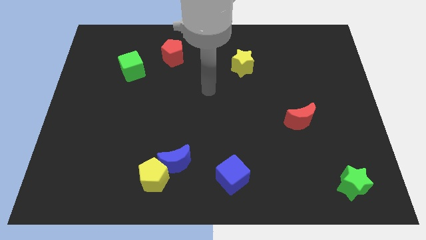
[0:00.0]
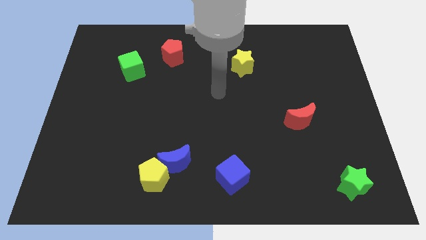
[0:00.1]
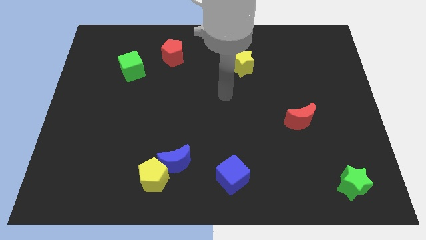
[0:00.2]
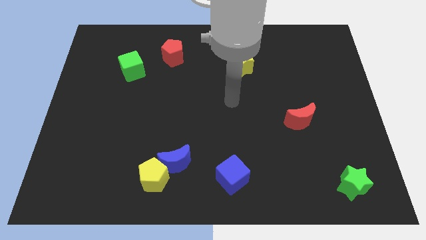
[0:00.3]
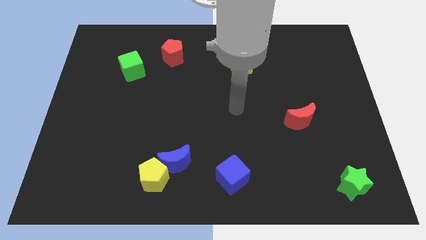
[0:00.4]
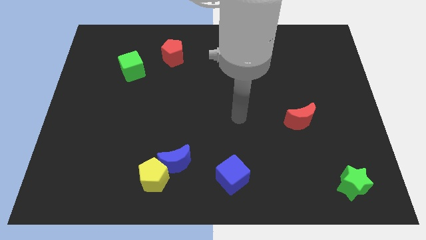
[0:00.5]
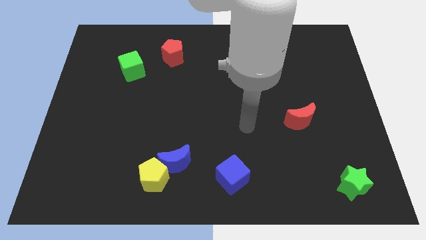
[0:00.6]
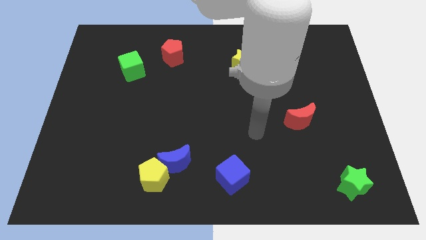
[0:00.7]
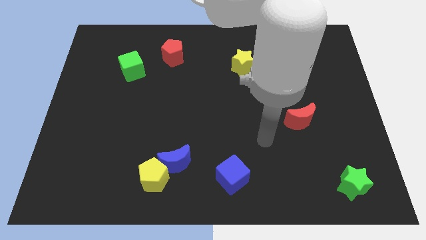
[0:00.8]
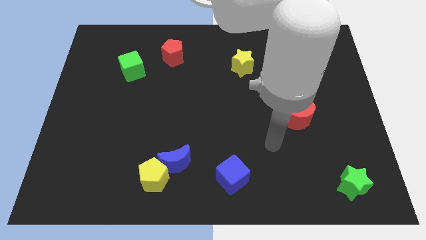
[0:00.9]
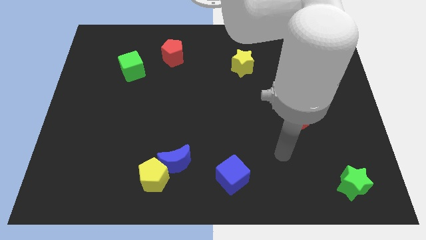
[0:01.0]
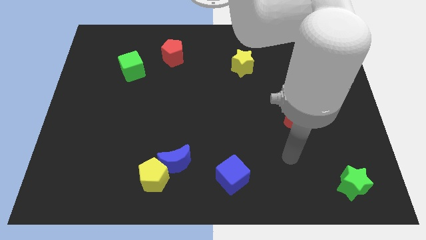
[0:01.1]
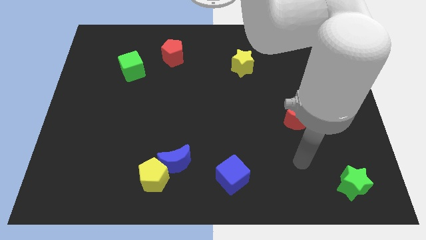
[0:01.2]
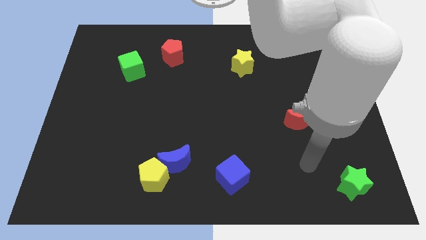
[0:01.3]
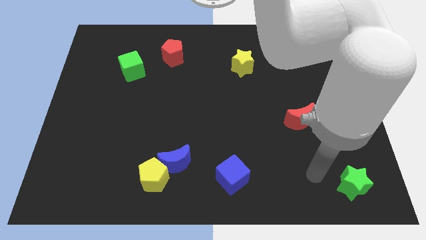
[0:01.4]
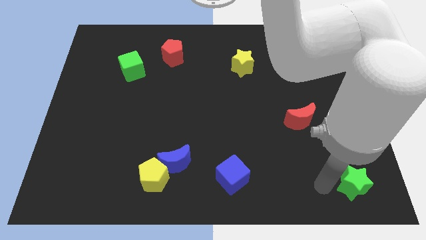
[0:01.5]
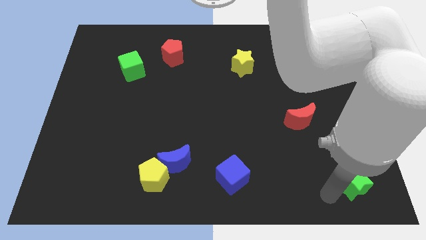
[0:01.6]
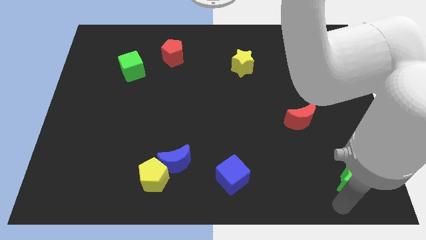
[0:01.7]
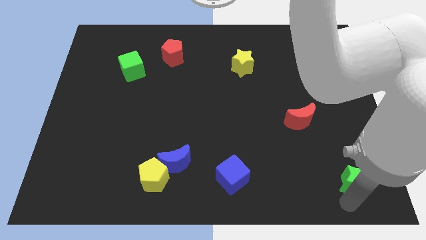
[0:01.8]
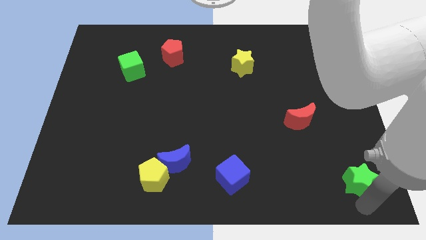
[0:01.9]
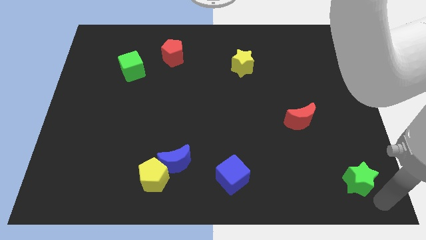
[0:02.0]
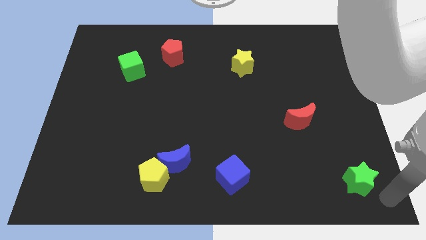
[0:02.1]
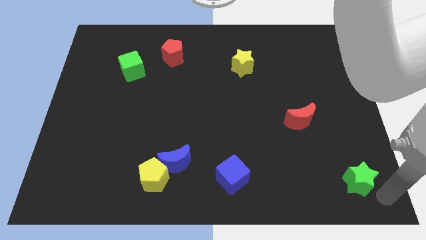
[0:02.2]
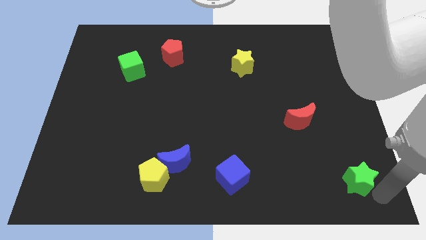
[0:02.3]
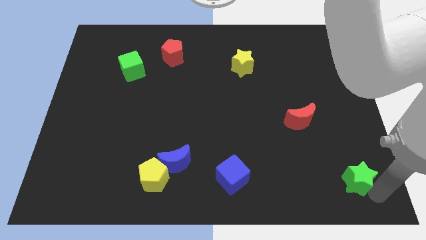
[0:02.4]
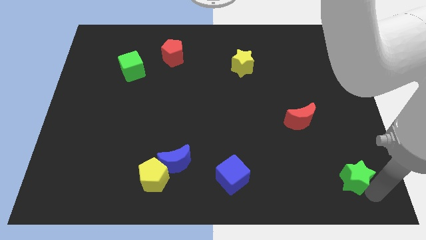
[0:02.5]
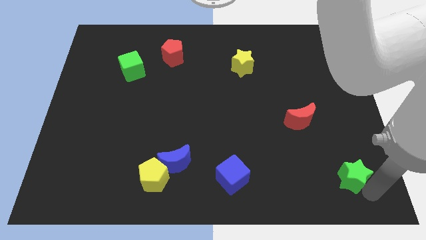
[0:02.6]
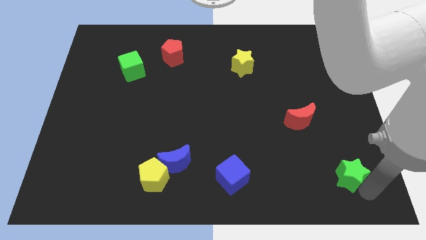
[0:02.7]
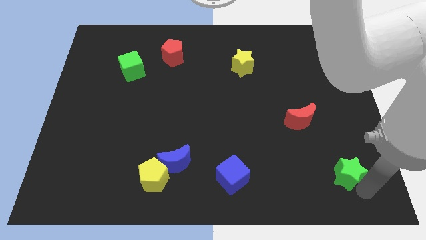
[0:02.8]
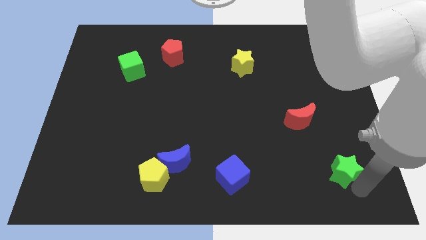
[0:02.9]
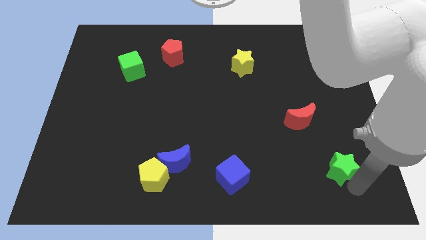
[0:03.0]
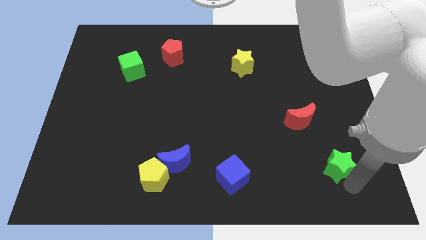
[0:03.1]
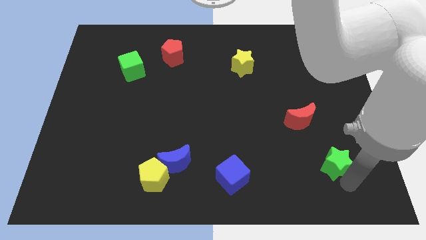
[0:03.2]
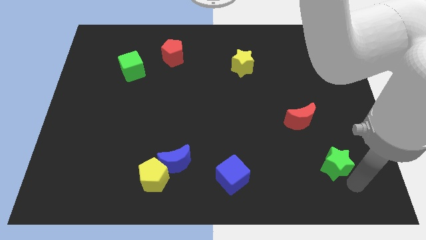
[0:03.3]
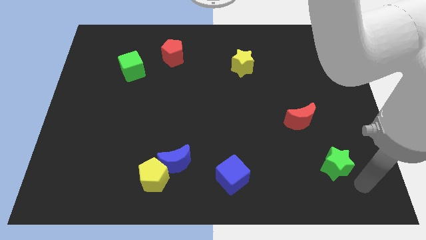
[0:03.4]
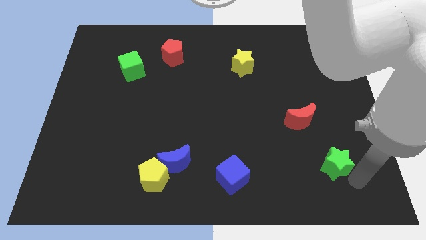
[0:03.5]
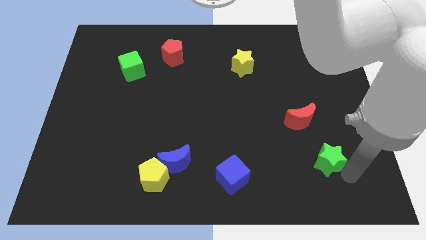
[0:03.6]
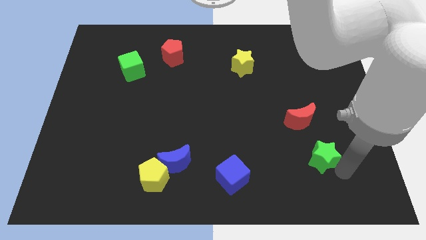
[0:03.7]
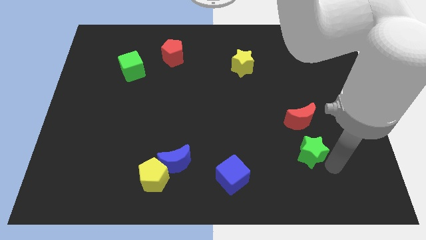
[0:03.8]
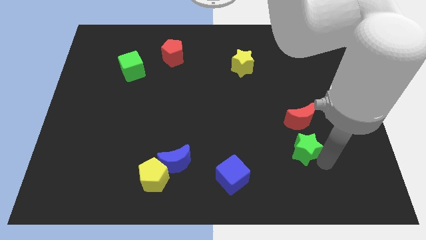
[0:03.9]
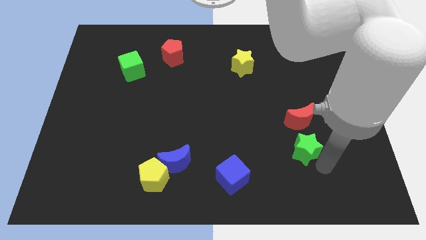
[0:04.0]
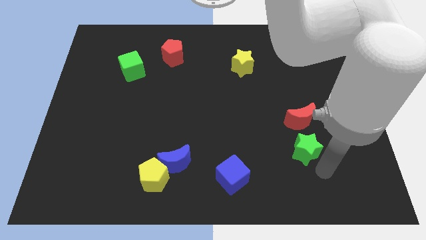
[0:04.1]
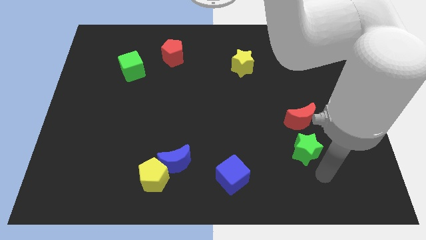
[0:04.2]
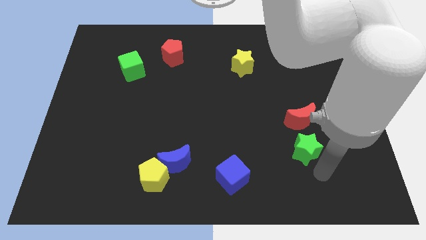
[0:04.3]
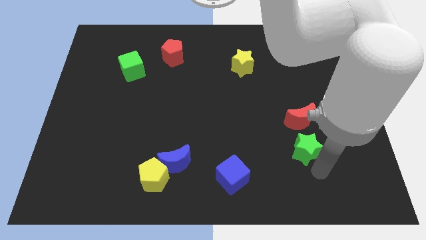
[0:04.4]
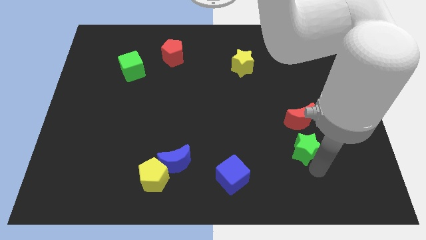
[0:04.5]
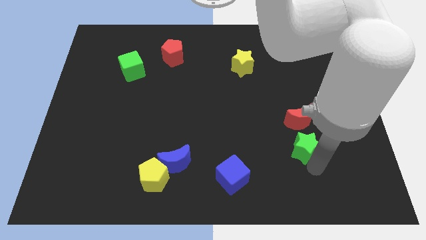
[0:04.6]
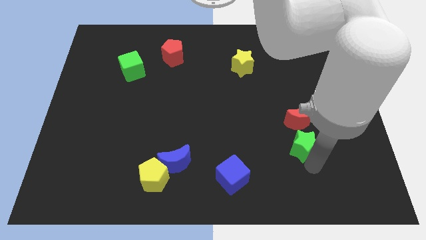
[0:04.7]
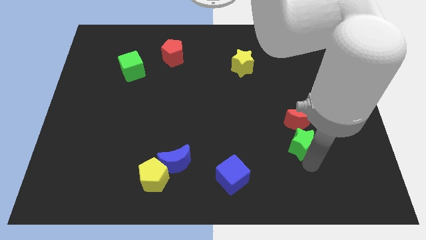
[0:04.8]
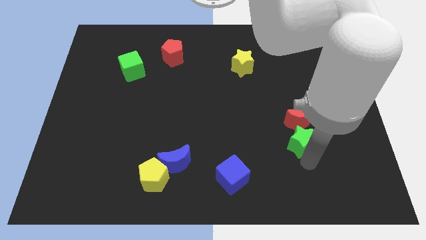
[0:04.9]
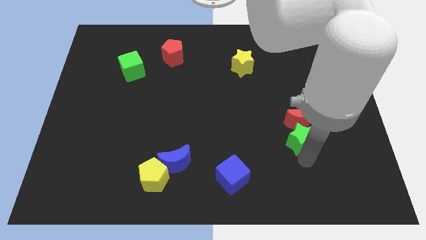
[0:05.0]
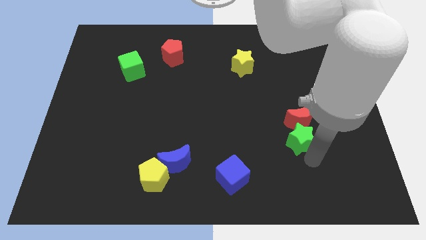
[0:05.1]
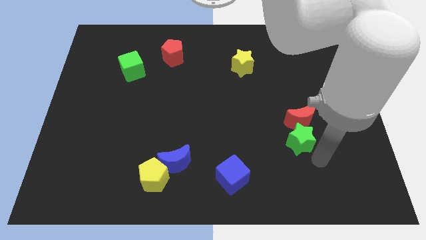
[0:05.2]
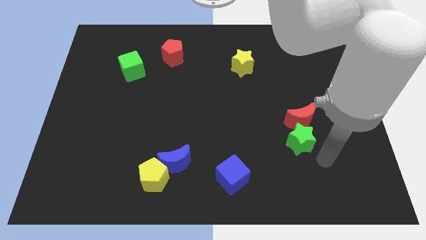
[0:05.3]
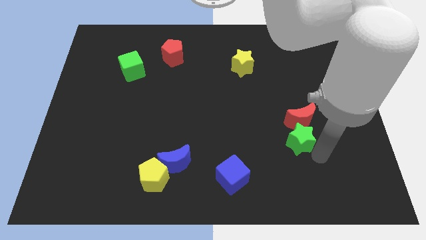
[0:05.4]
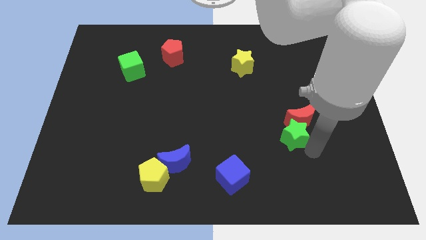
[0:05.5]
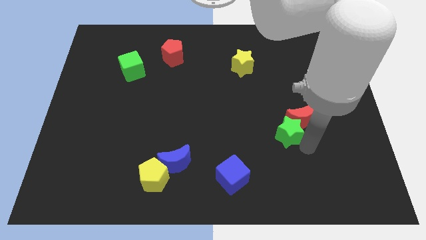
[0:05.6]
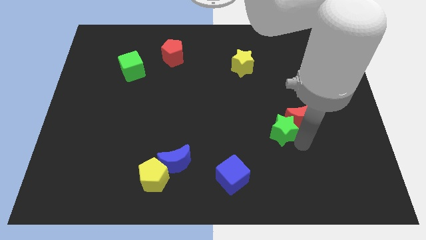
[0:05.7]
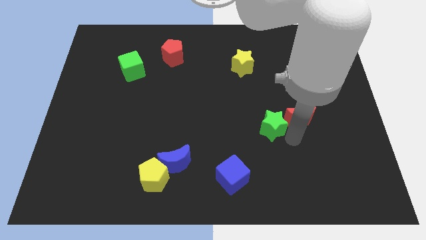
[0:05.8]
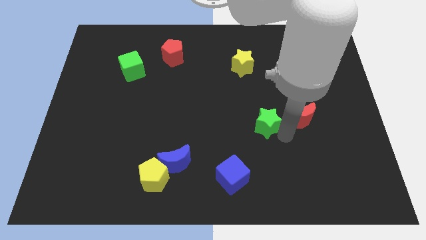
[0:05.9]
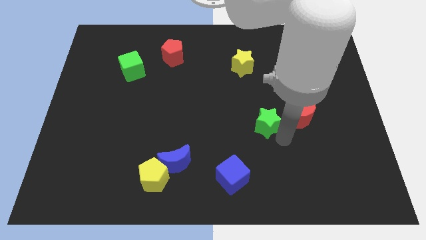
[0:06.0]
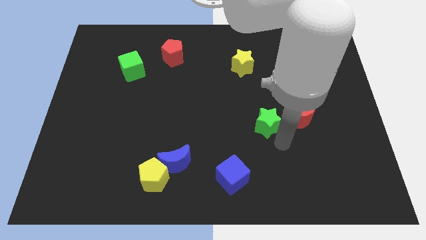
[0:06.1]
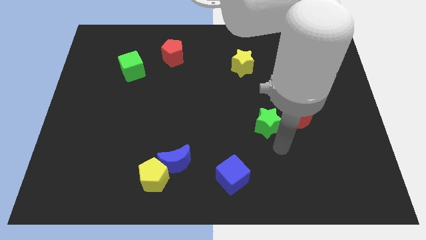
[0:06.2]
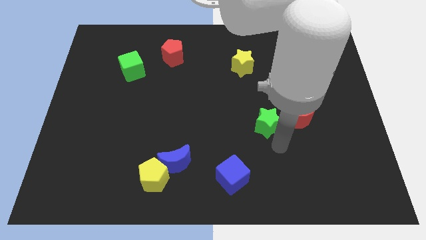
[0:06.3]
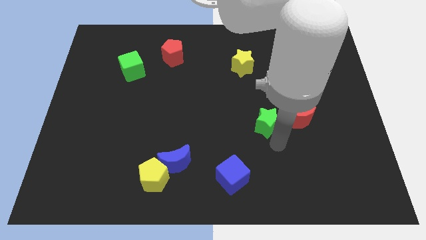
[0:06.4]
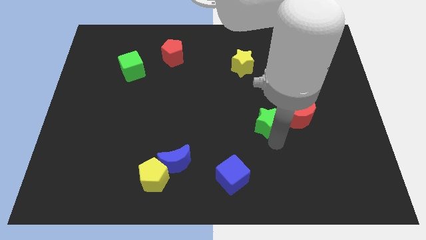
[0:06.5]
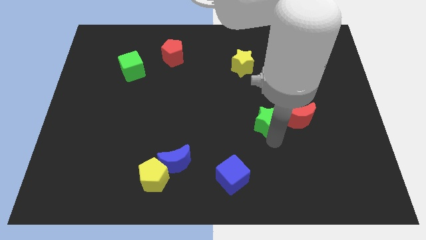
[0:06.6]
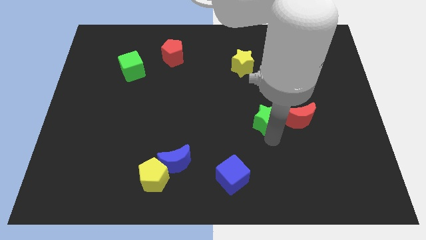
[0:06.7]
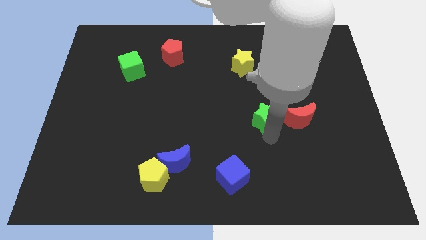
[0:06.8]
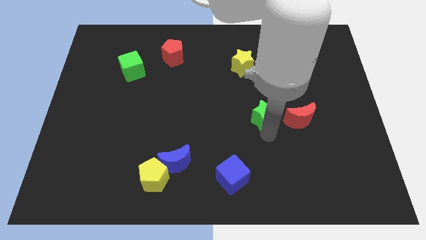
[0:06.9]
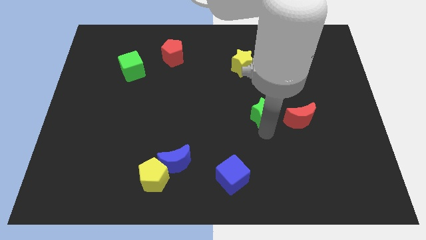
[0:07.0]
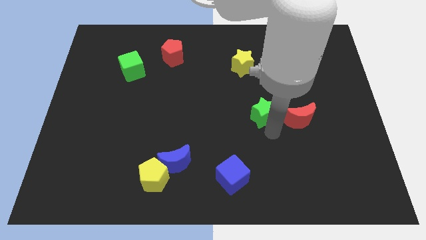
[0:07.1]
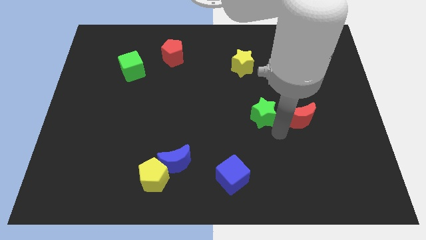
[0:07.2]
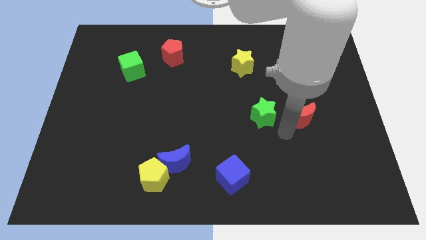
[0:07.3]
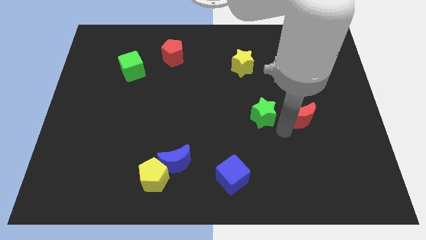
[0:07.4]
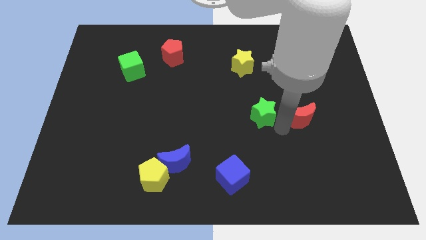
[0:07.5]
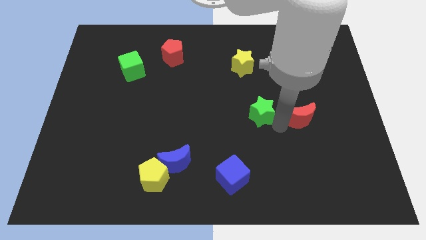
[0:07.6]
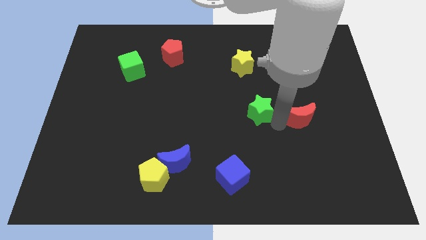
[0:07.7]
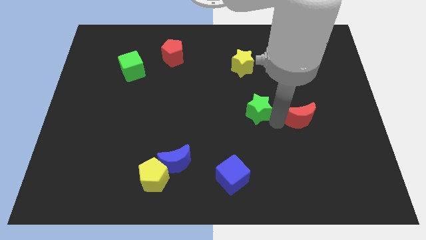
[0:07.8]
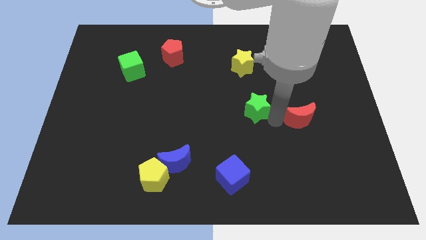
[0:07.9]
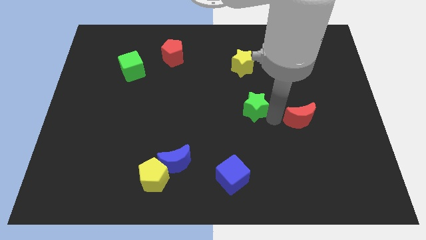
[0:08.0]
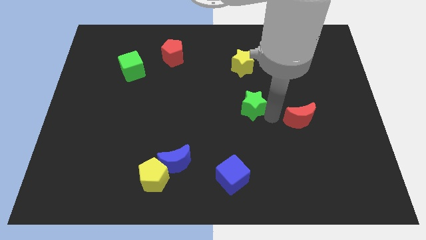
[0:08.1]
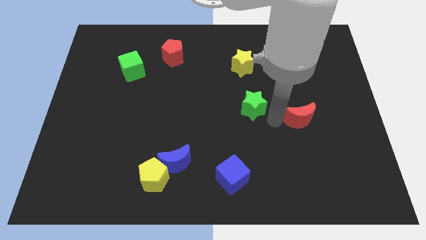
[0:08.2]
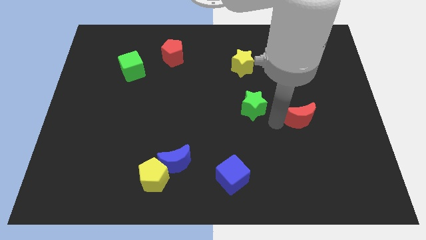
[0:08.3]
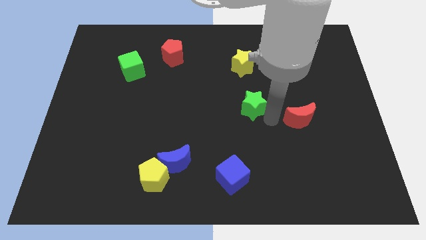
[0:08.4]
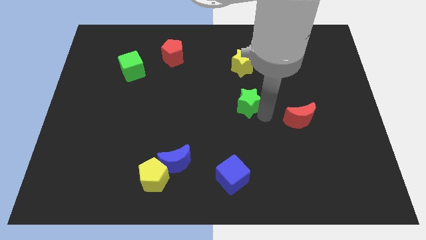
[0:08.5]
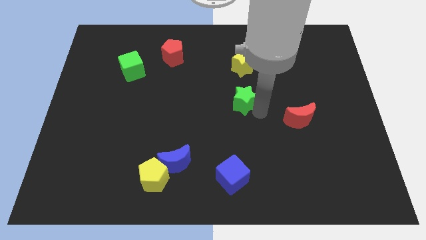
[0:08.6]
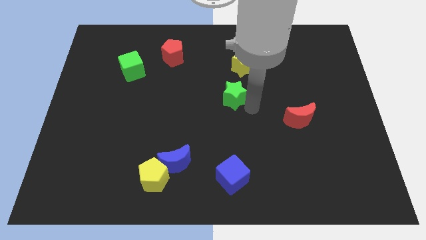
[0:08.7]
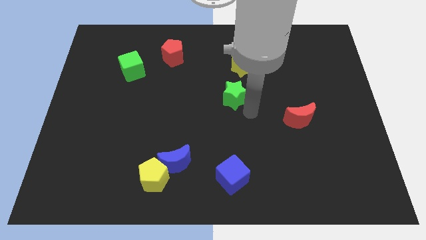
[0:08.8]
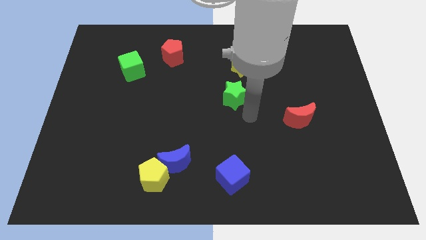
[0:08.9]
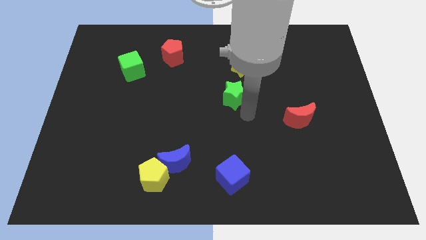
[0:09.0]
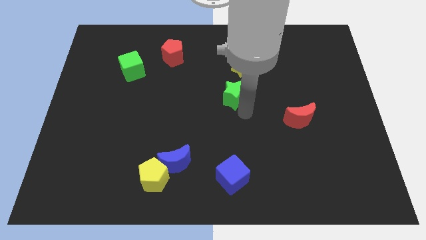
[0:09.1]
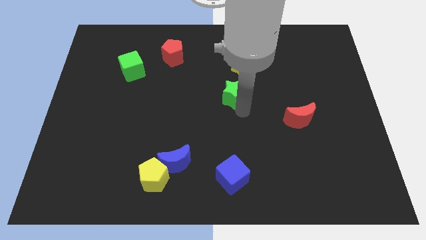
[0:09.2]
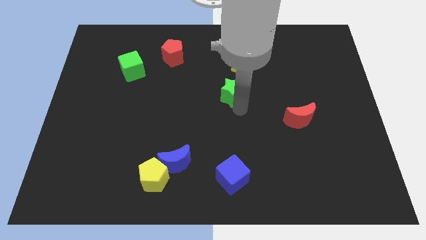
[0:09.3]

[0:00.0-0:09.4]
push the green star to the bottom left of the yellow star
